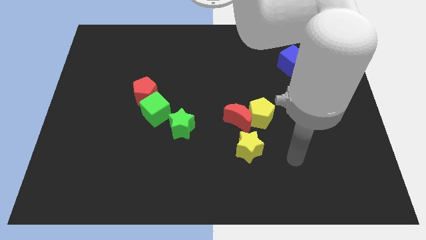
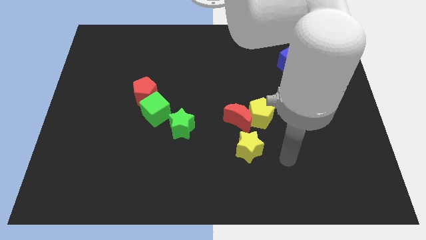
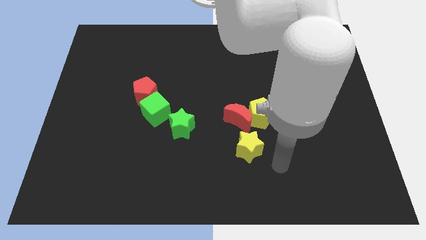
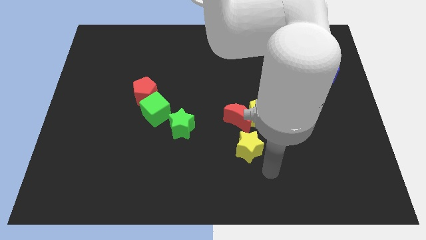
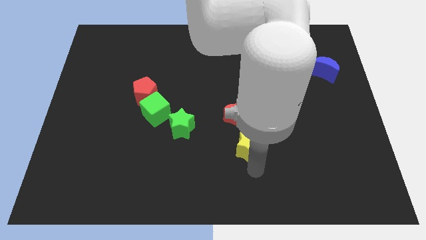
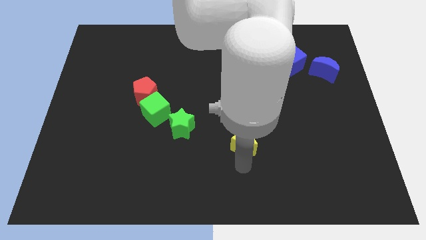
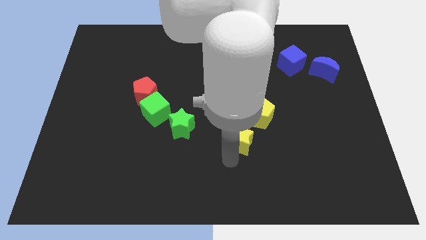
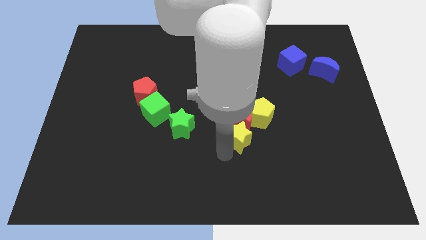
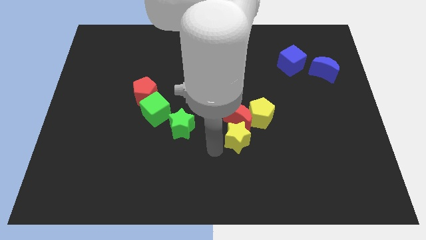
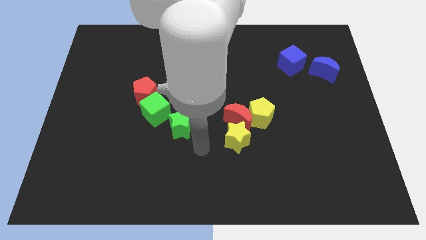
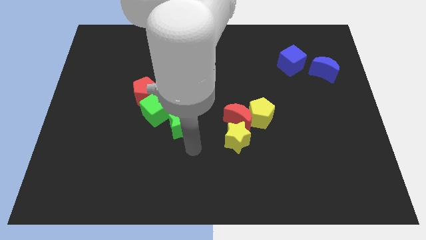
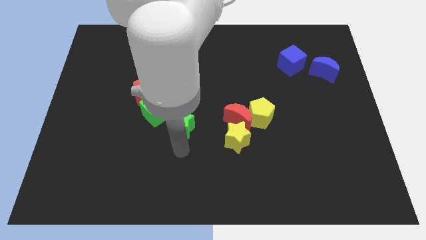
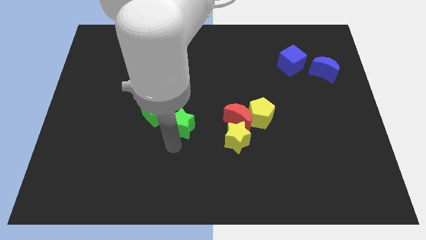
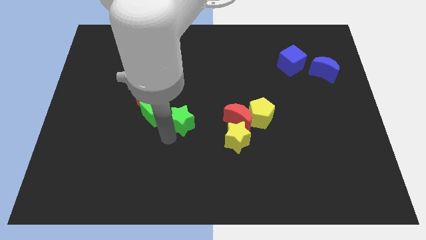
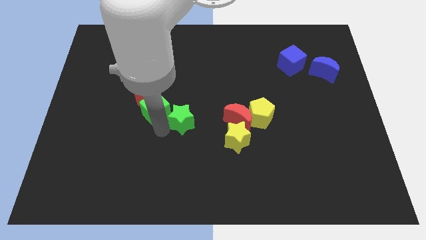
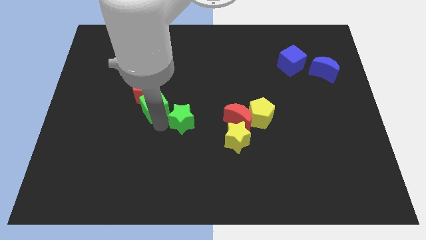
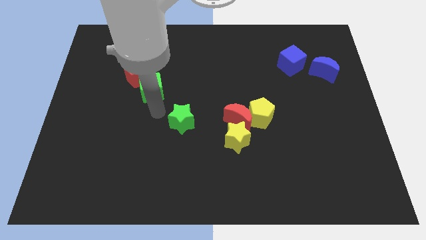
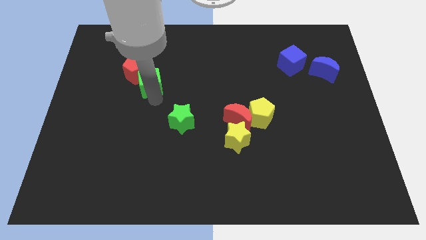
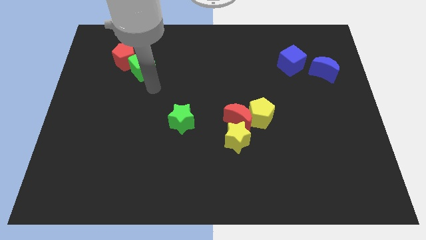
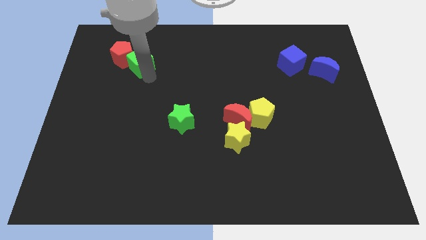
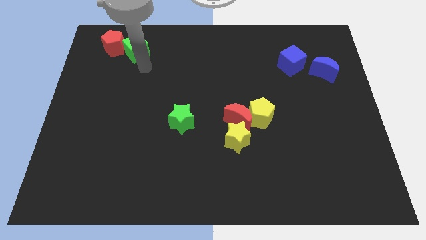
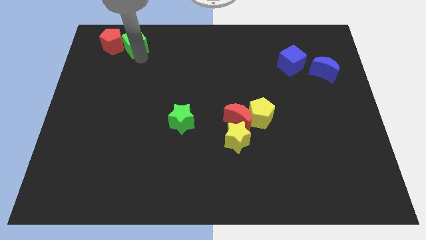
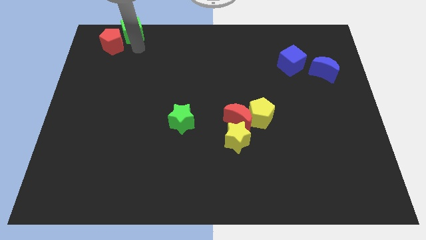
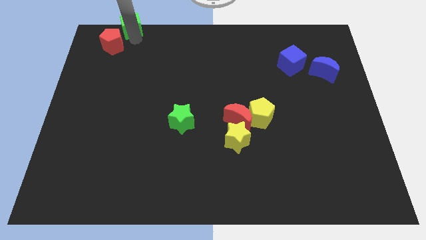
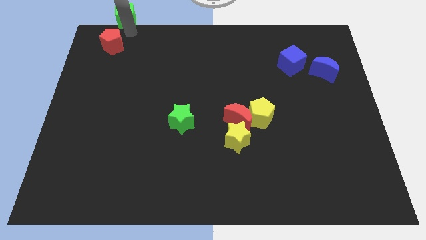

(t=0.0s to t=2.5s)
move the red pentagon away from the green cube

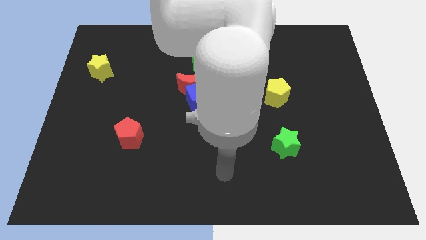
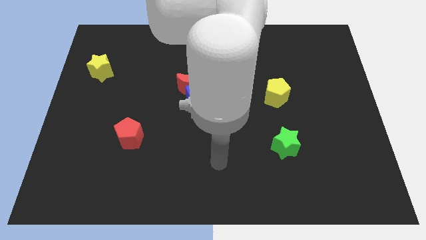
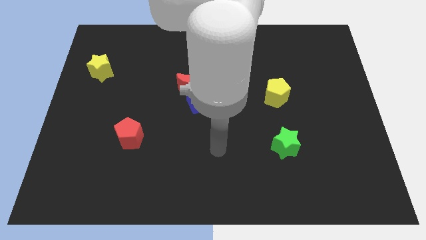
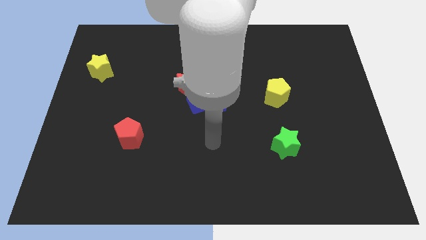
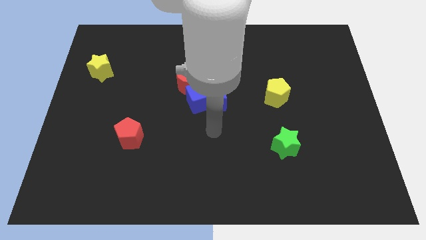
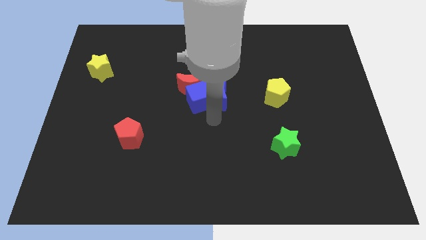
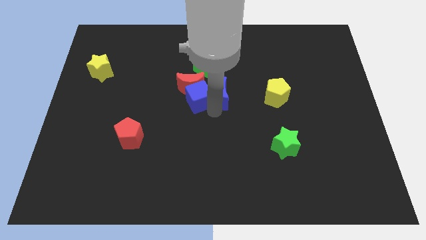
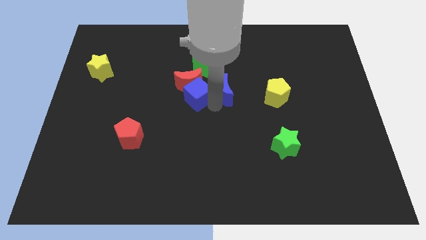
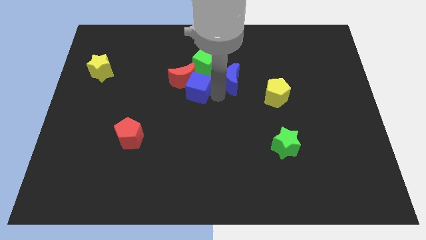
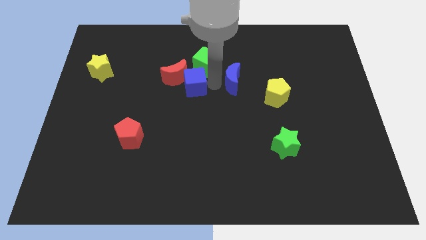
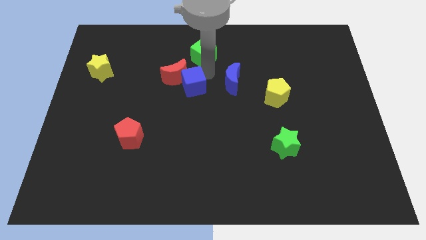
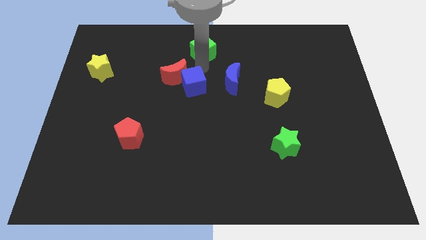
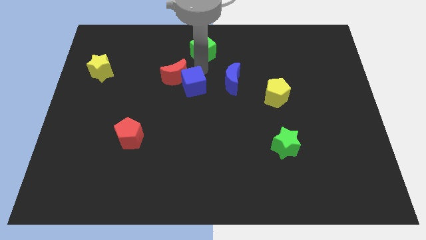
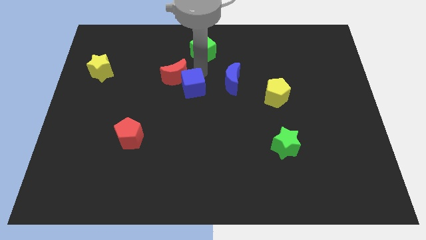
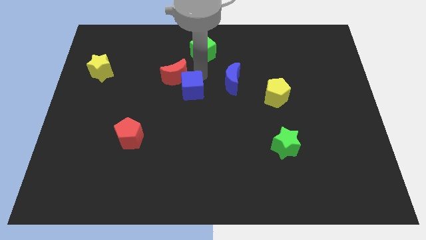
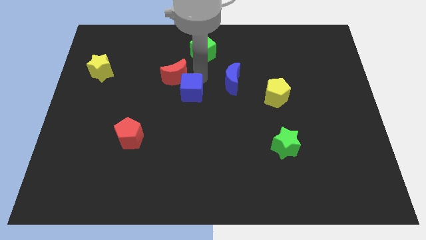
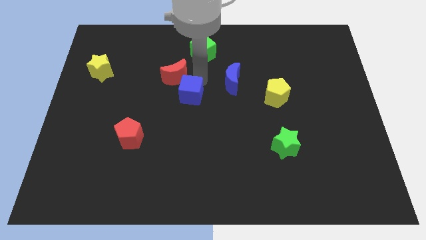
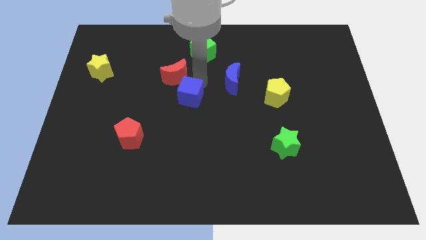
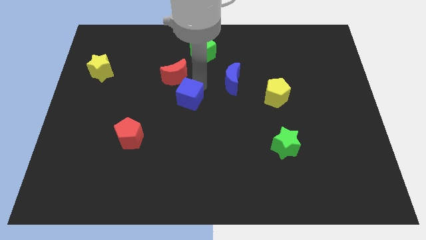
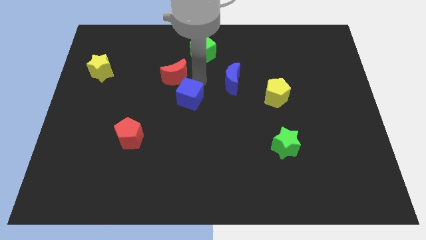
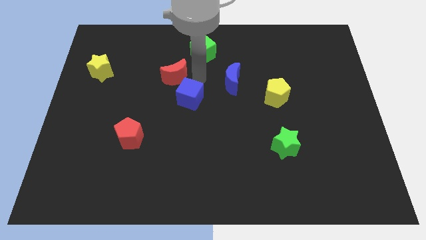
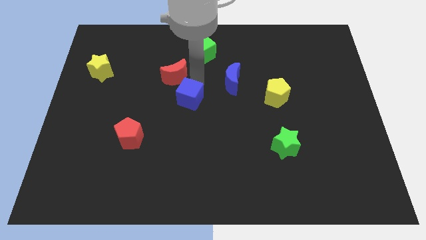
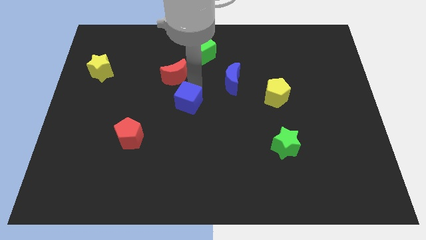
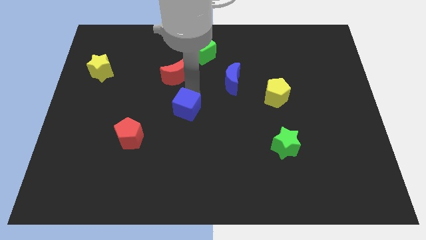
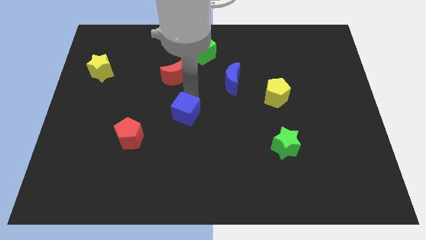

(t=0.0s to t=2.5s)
pull the blue cube apart from the red moon and blue moon

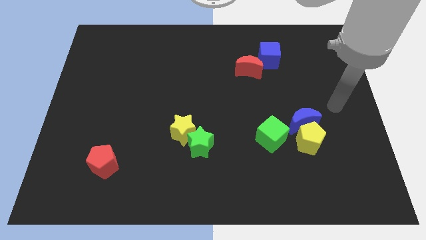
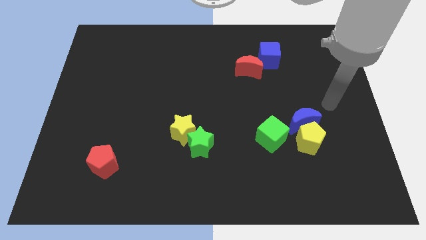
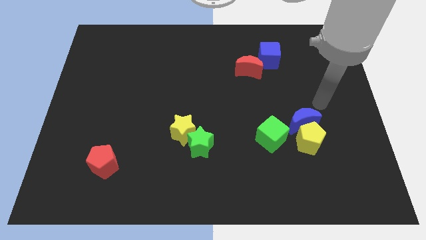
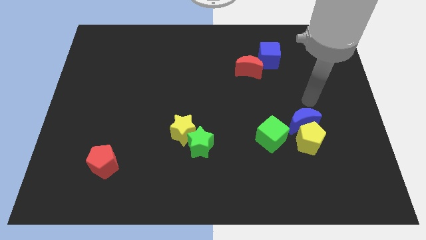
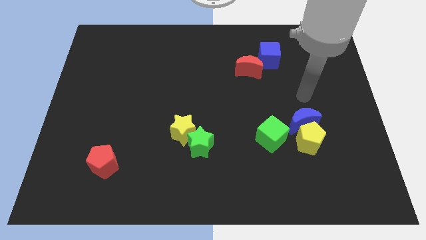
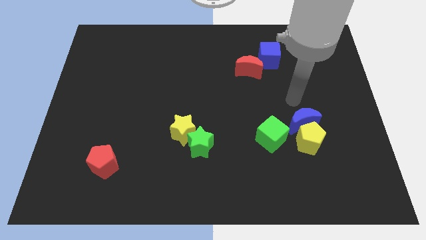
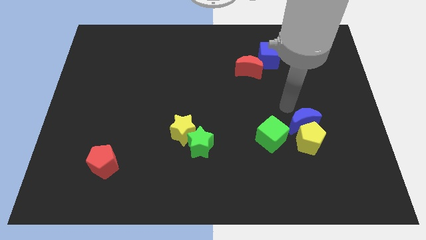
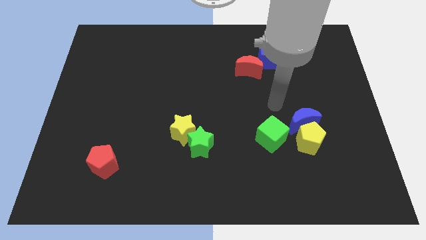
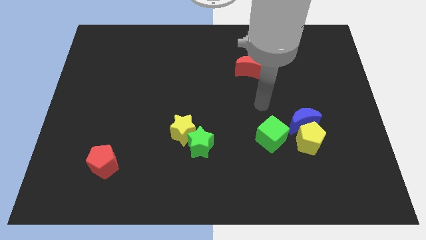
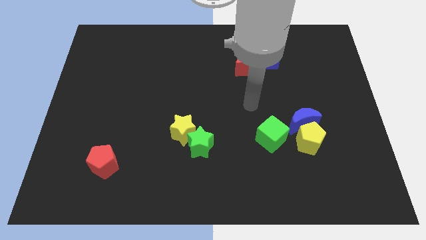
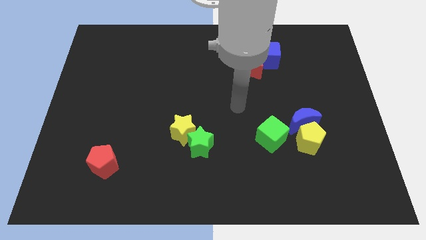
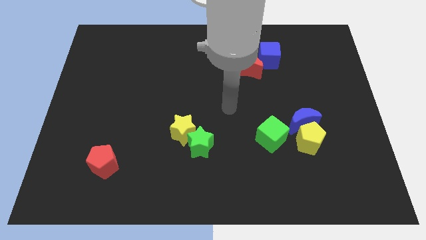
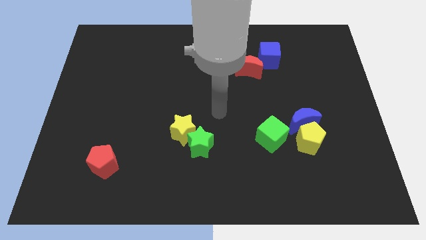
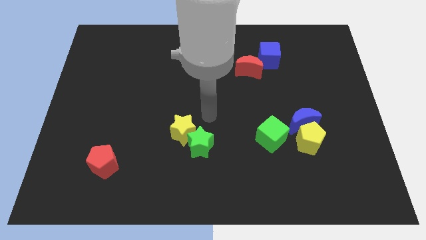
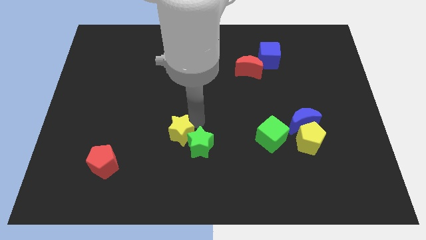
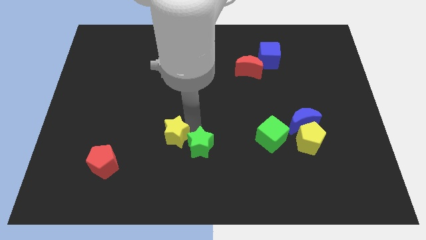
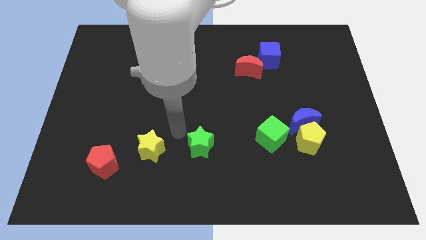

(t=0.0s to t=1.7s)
move the green star away from the yellow star

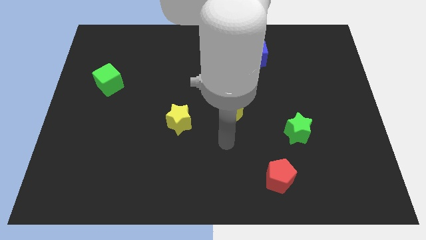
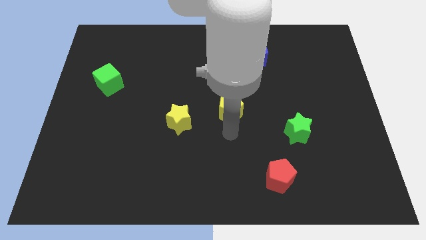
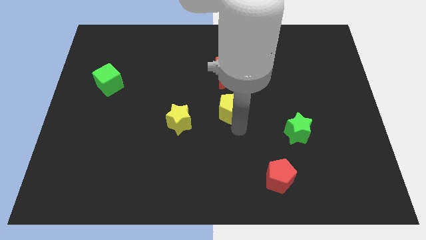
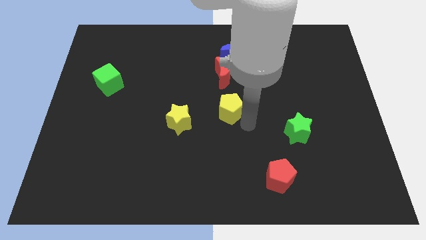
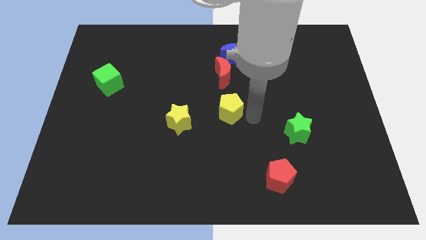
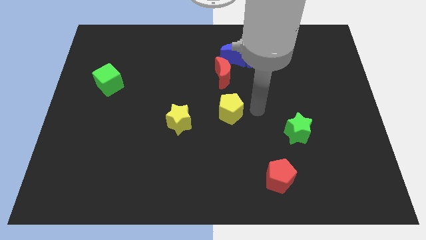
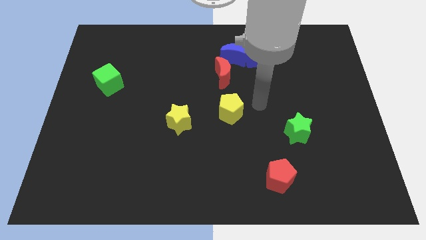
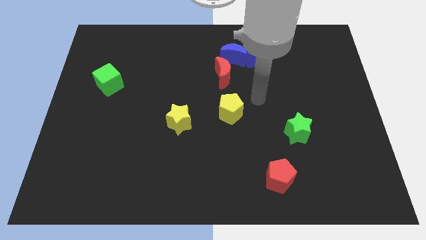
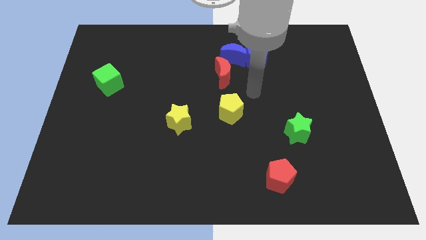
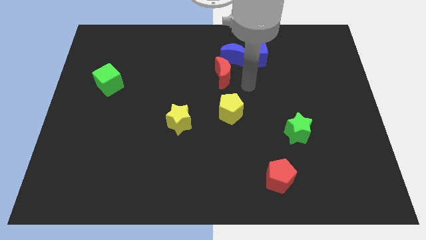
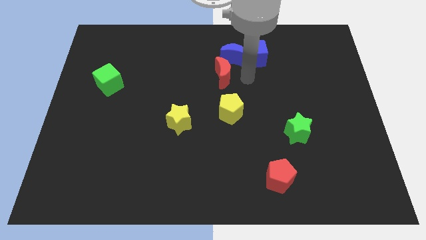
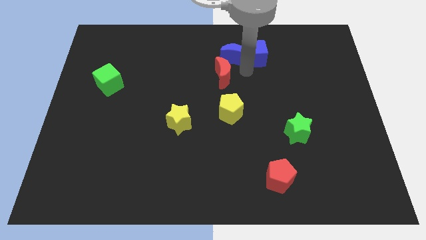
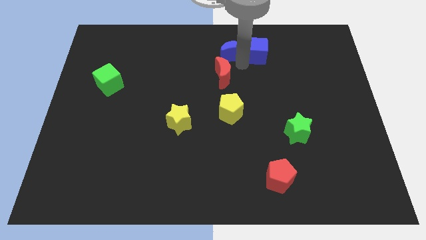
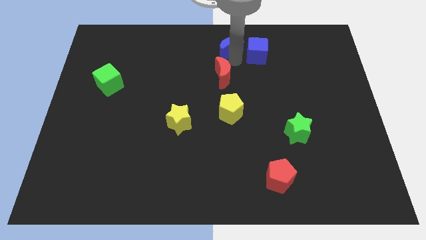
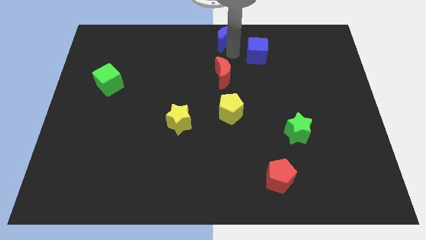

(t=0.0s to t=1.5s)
move the blue cube away from the blue moon

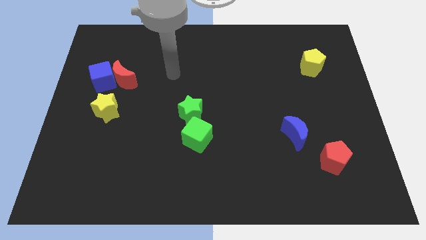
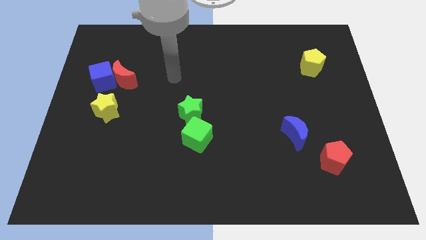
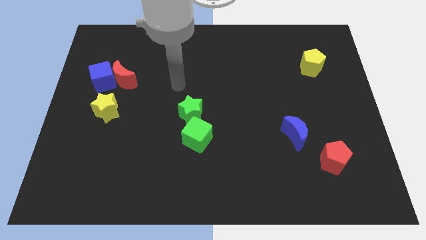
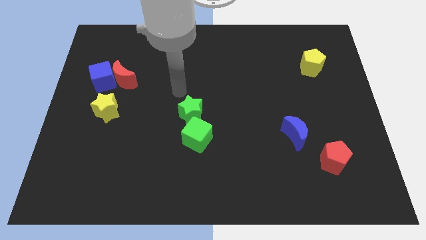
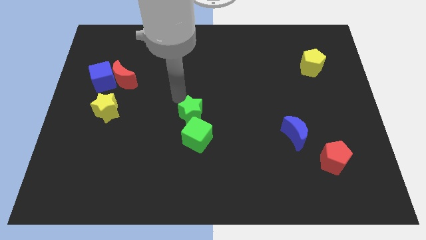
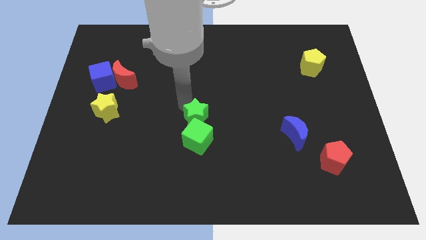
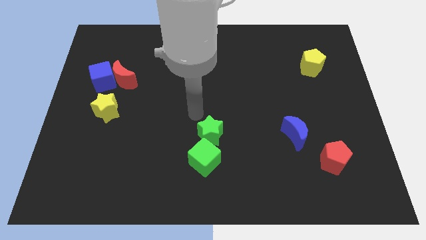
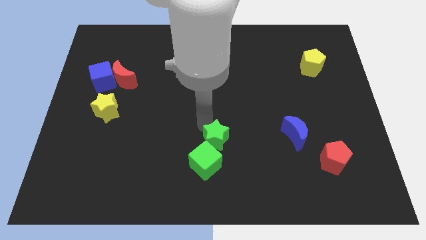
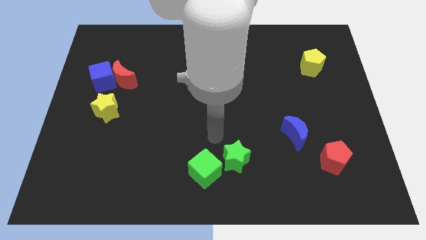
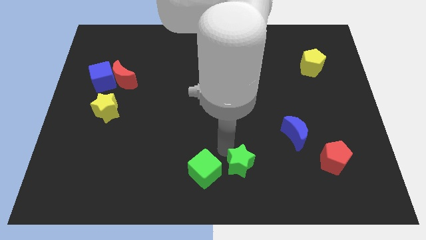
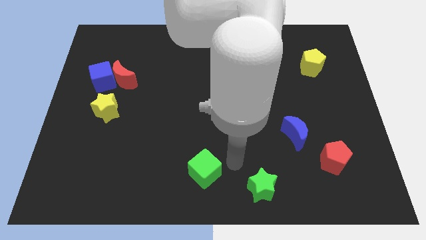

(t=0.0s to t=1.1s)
pull the green cube apart from the green star

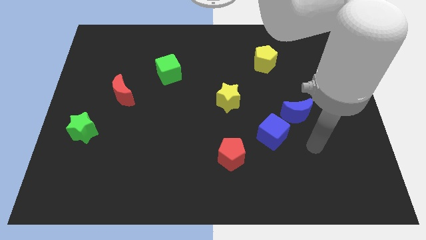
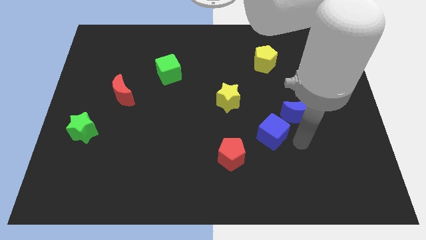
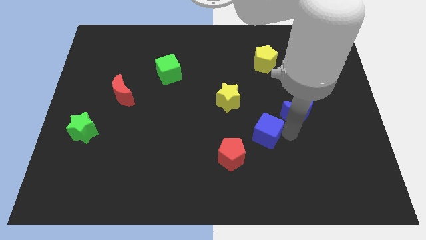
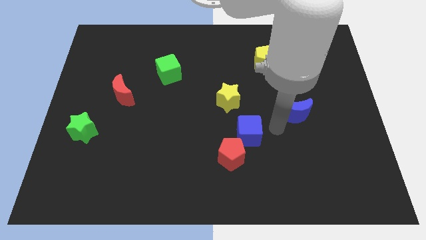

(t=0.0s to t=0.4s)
separate the blue moon from the blue cube
